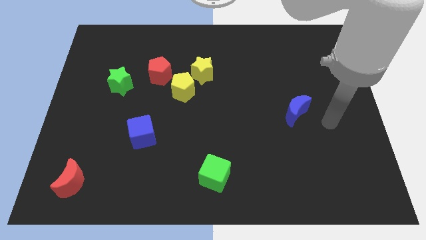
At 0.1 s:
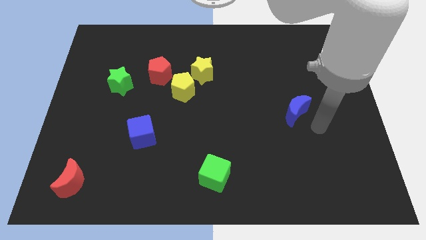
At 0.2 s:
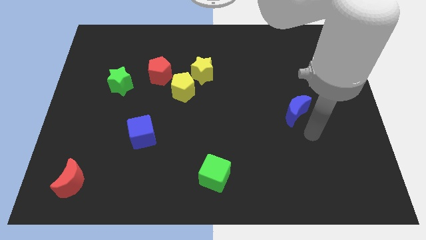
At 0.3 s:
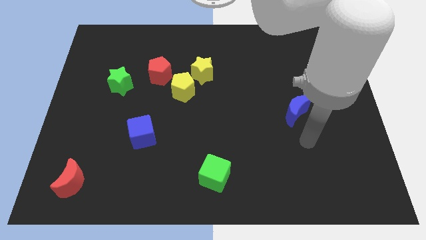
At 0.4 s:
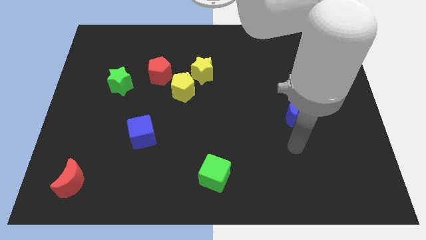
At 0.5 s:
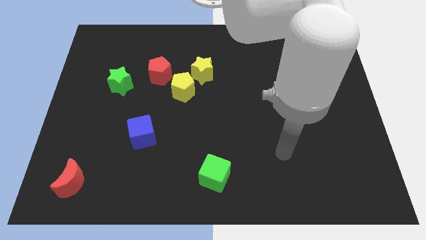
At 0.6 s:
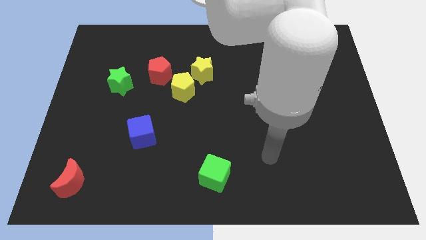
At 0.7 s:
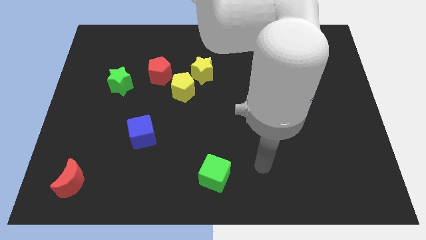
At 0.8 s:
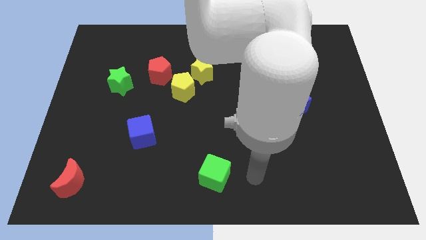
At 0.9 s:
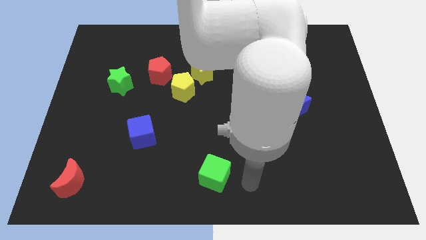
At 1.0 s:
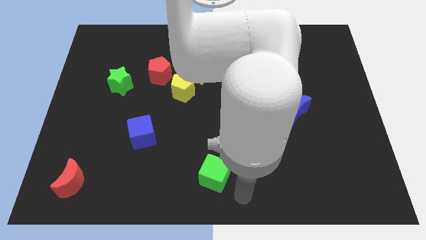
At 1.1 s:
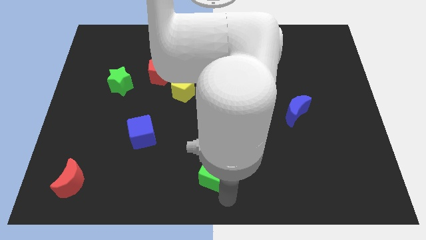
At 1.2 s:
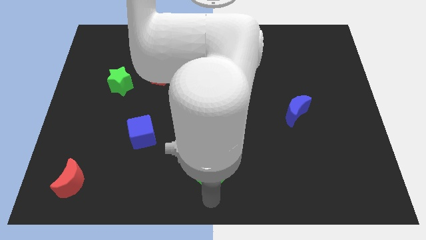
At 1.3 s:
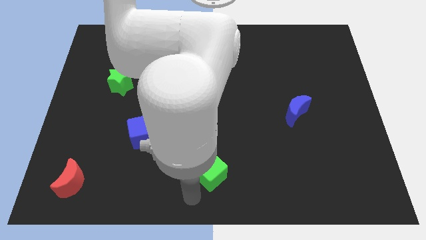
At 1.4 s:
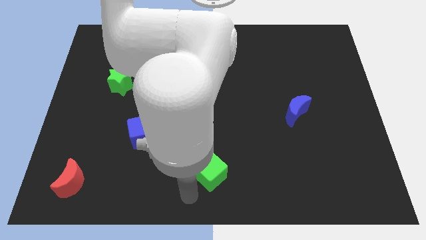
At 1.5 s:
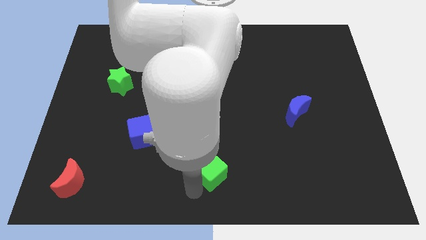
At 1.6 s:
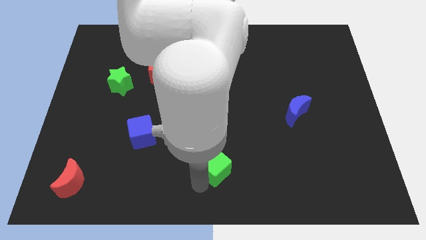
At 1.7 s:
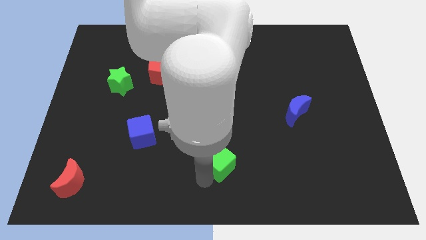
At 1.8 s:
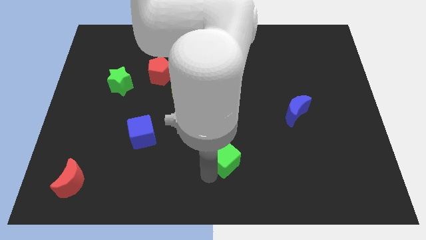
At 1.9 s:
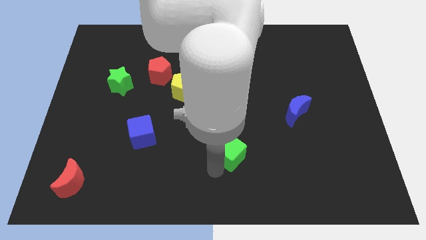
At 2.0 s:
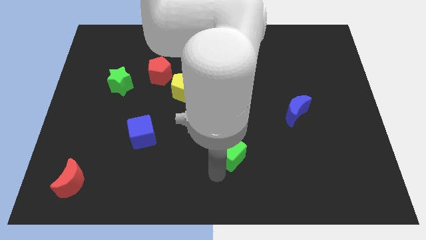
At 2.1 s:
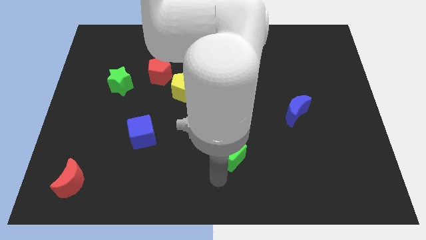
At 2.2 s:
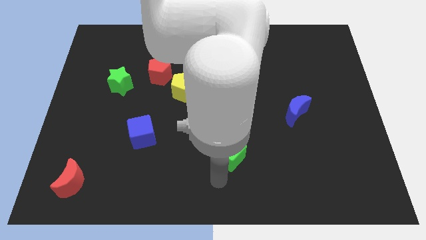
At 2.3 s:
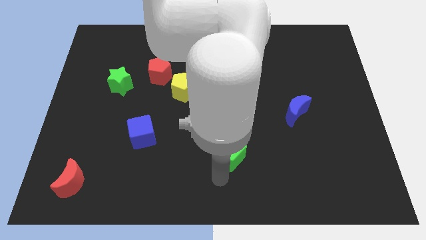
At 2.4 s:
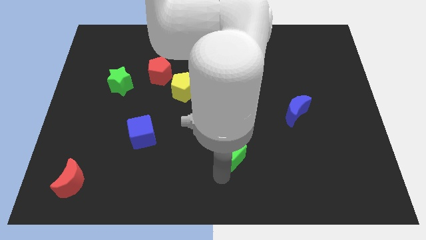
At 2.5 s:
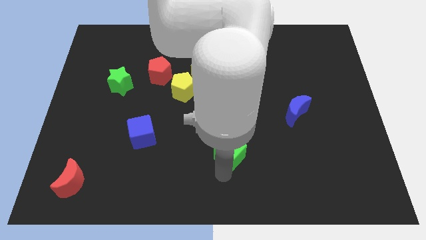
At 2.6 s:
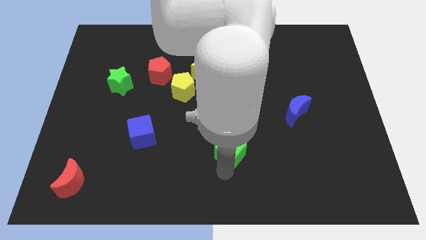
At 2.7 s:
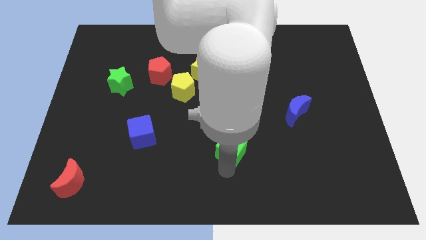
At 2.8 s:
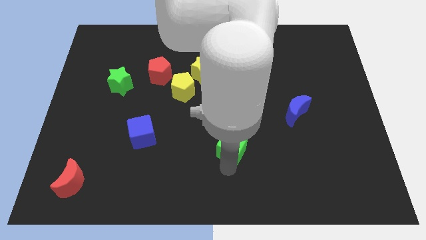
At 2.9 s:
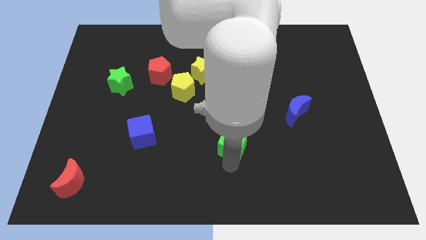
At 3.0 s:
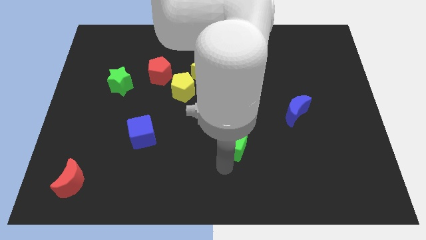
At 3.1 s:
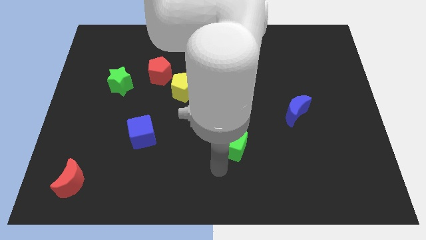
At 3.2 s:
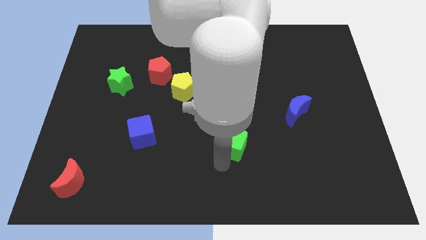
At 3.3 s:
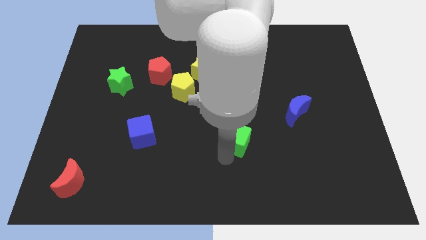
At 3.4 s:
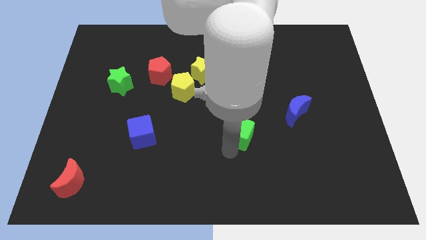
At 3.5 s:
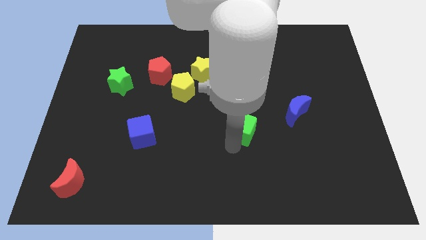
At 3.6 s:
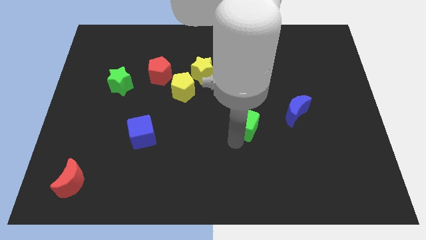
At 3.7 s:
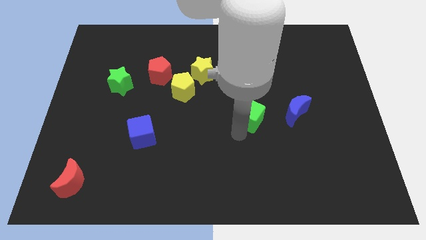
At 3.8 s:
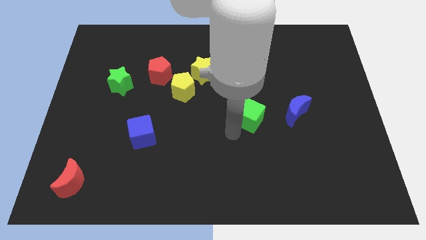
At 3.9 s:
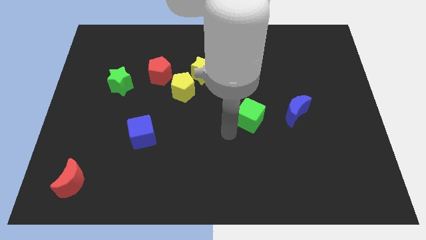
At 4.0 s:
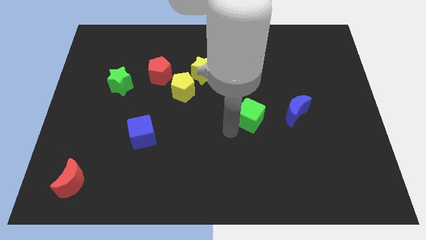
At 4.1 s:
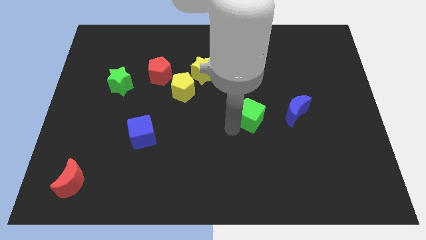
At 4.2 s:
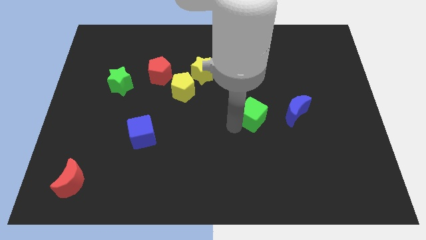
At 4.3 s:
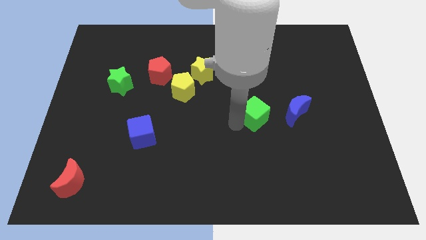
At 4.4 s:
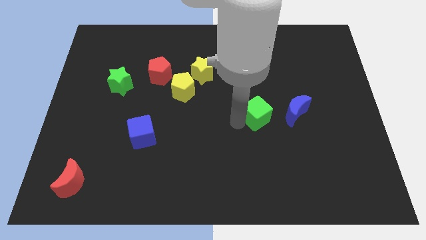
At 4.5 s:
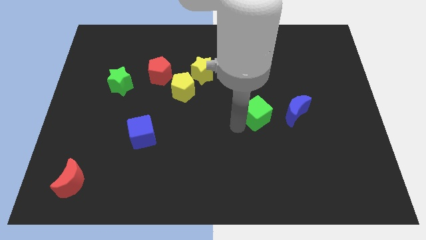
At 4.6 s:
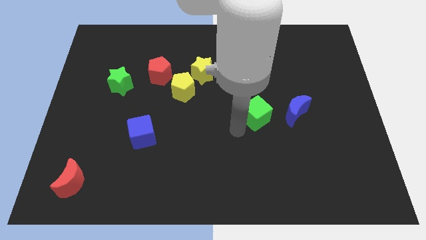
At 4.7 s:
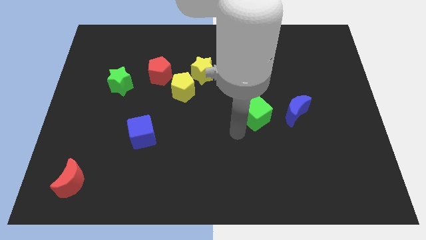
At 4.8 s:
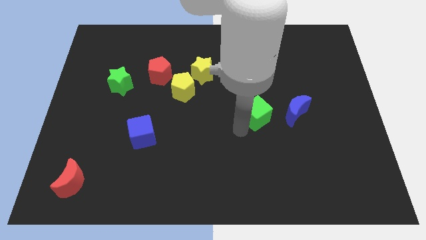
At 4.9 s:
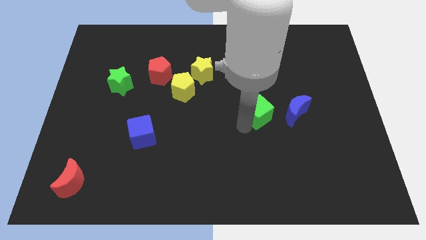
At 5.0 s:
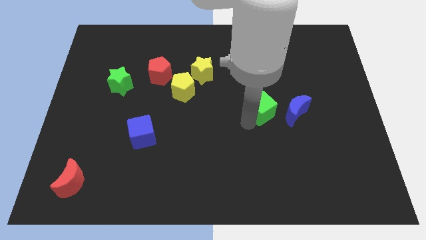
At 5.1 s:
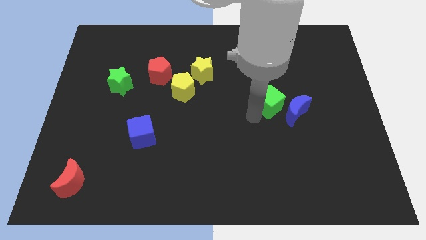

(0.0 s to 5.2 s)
slide the green cube diagonally up and right

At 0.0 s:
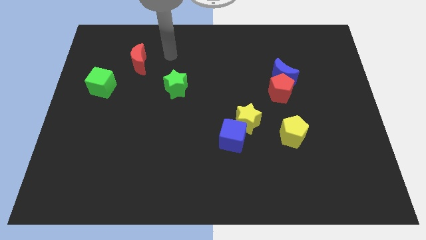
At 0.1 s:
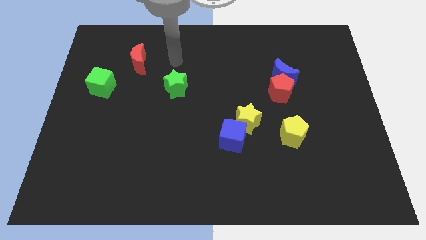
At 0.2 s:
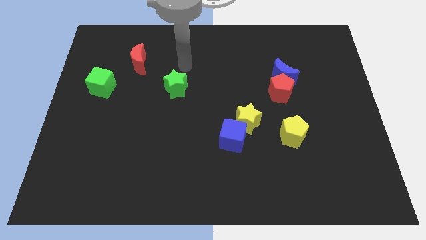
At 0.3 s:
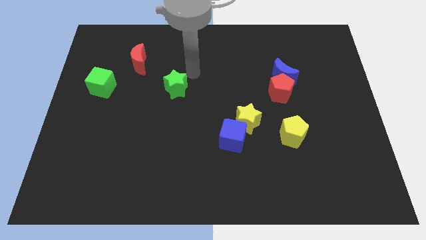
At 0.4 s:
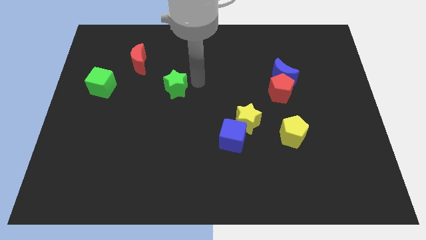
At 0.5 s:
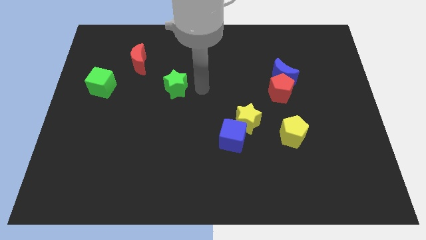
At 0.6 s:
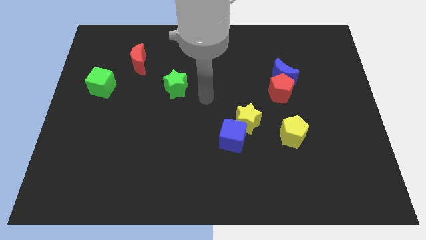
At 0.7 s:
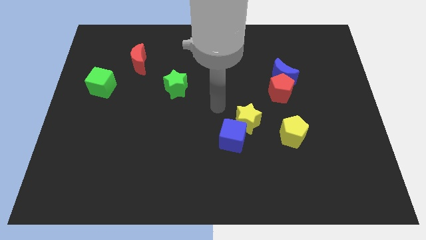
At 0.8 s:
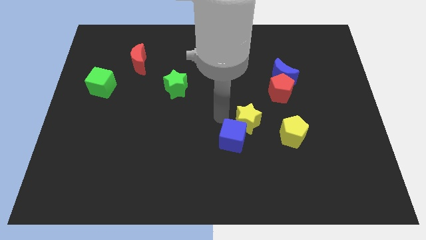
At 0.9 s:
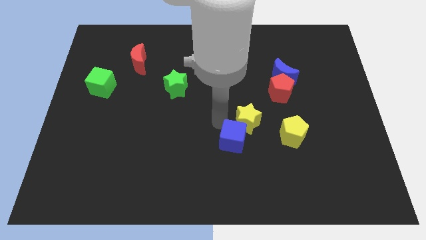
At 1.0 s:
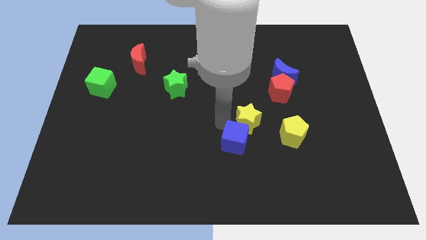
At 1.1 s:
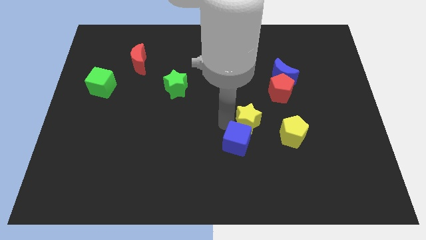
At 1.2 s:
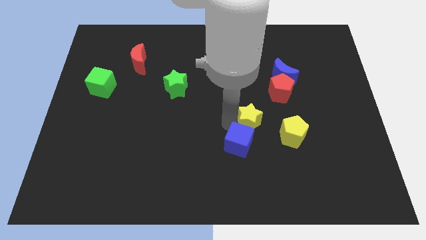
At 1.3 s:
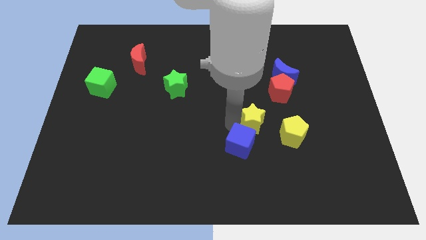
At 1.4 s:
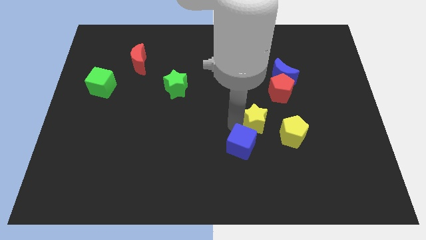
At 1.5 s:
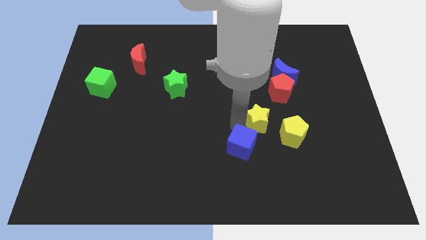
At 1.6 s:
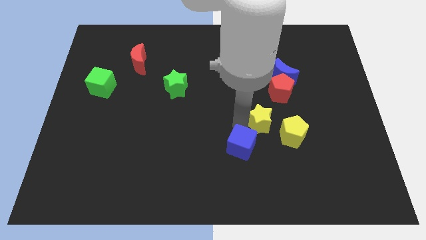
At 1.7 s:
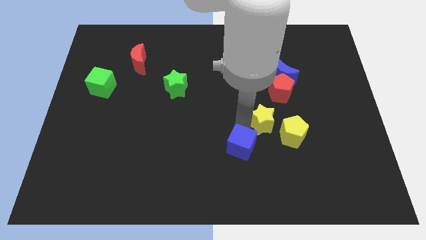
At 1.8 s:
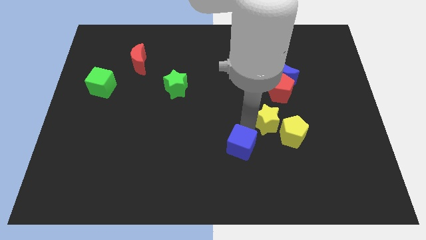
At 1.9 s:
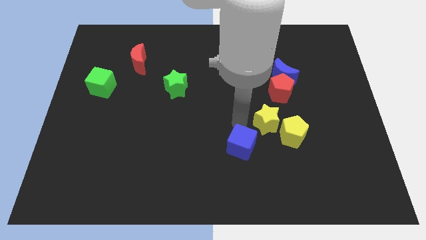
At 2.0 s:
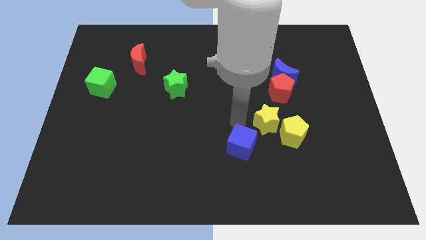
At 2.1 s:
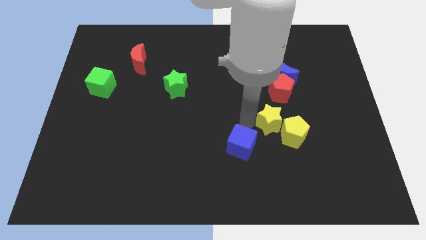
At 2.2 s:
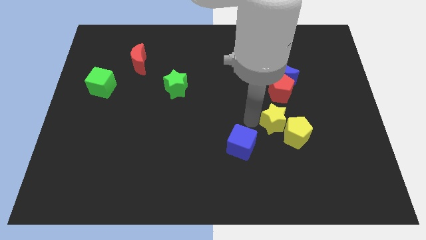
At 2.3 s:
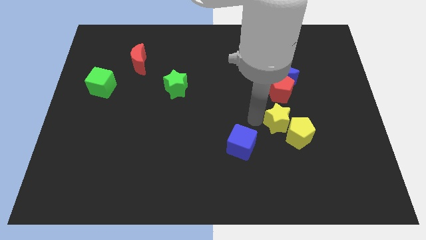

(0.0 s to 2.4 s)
slightly slide the yellow star to the right

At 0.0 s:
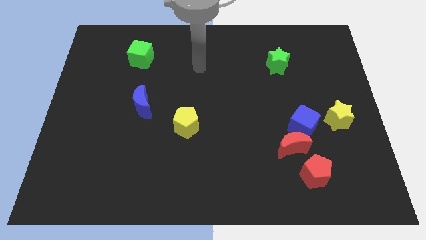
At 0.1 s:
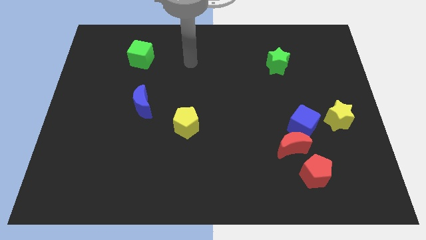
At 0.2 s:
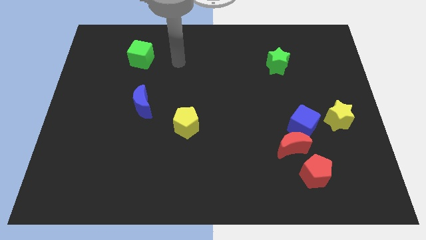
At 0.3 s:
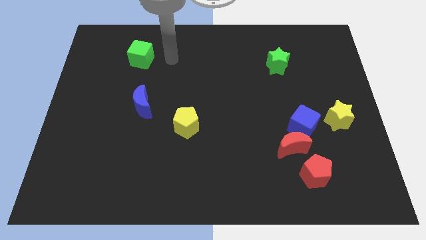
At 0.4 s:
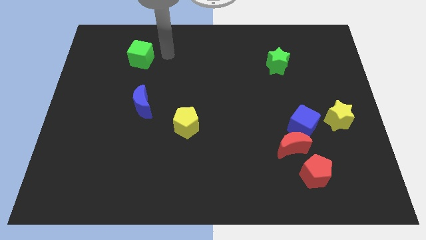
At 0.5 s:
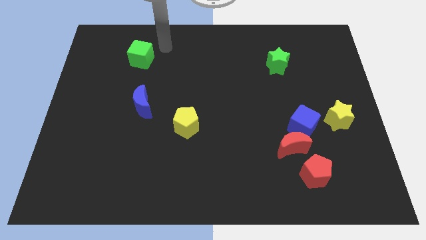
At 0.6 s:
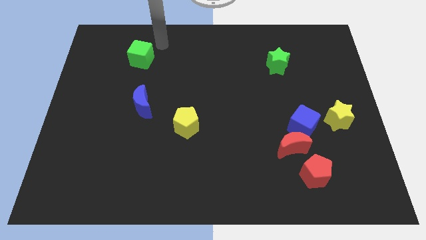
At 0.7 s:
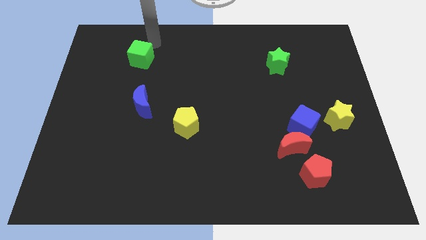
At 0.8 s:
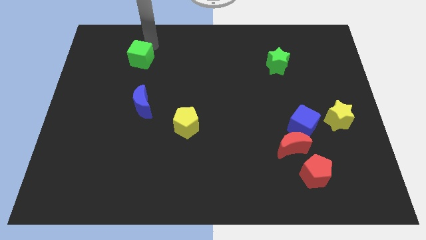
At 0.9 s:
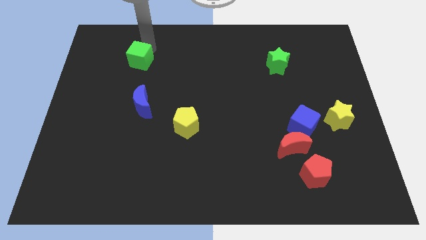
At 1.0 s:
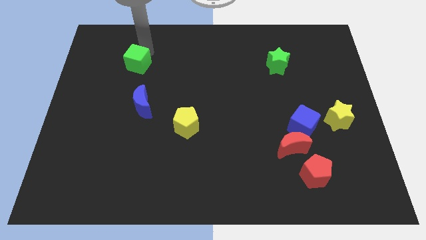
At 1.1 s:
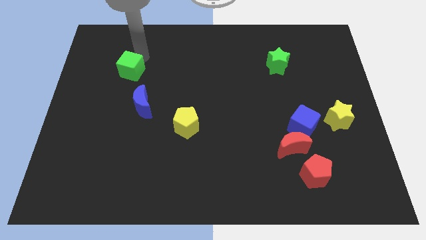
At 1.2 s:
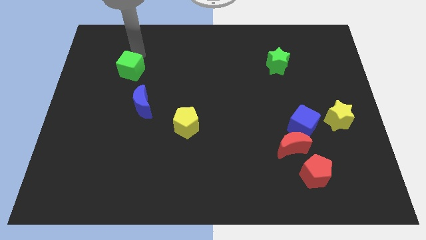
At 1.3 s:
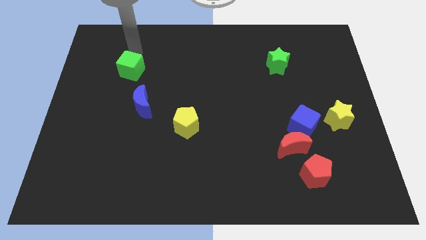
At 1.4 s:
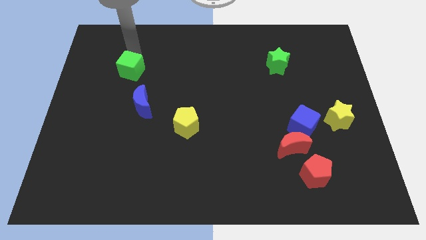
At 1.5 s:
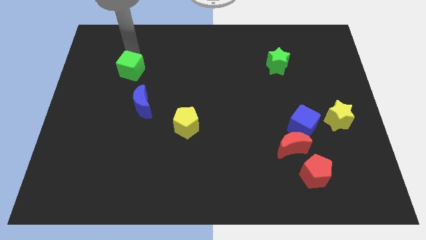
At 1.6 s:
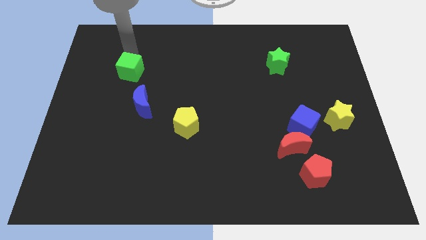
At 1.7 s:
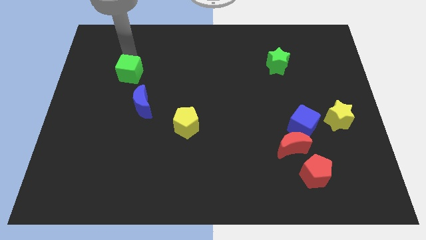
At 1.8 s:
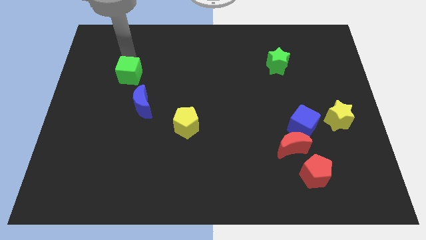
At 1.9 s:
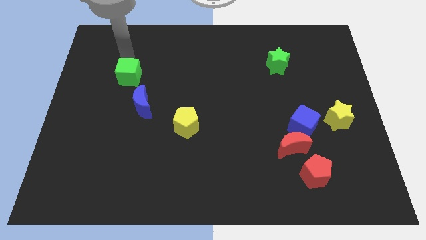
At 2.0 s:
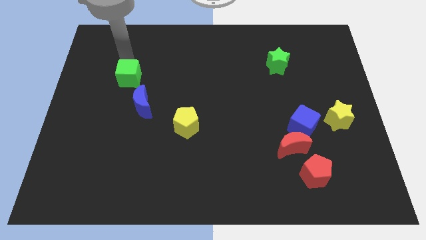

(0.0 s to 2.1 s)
slightly move the green cube downwards
